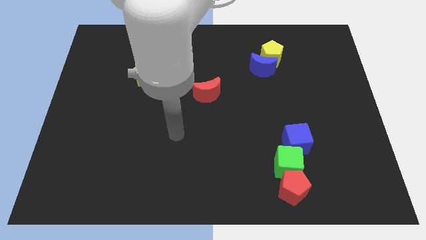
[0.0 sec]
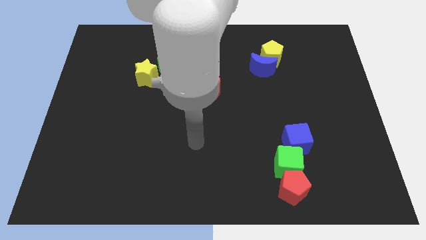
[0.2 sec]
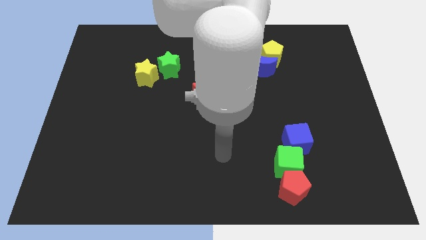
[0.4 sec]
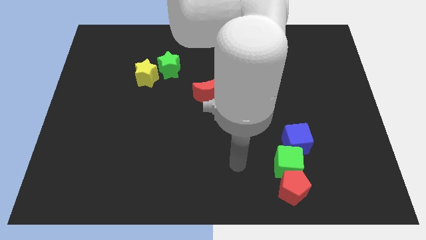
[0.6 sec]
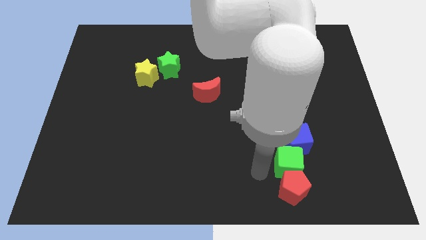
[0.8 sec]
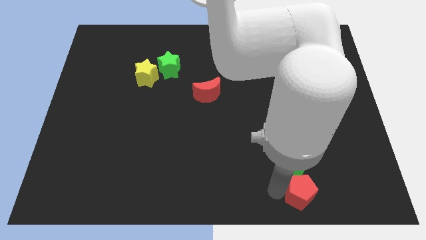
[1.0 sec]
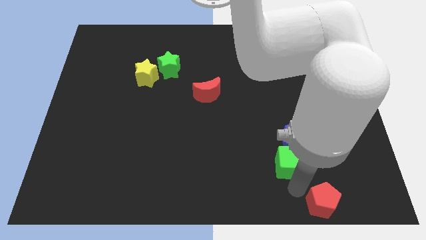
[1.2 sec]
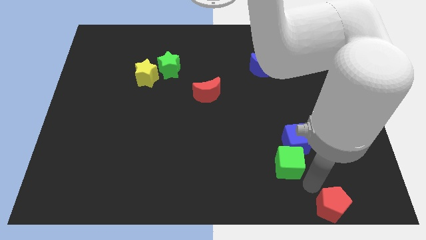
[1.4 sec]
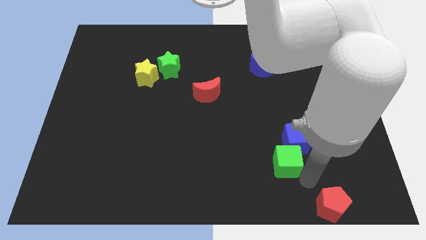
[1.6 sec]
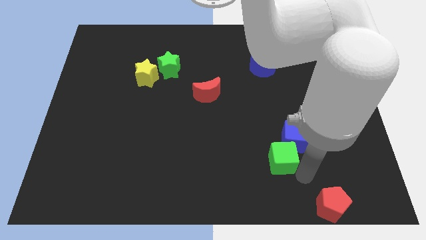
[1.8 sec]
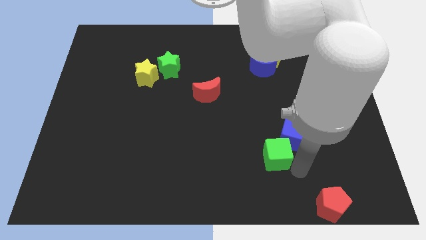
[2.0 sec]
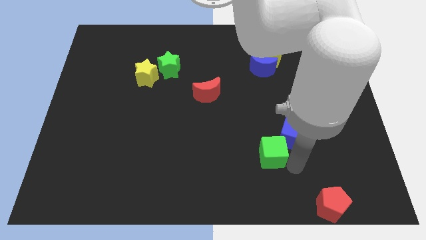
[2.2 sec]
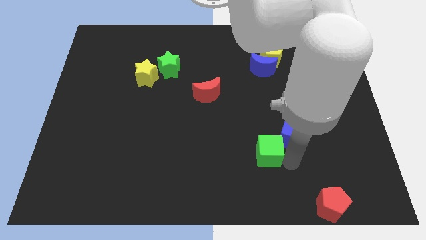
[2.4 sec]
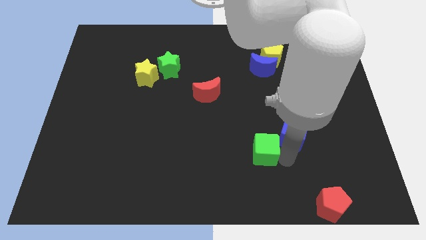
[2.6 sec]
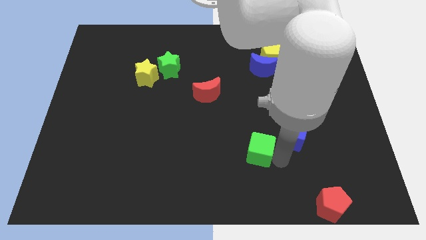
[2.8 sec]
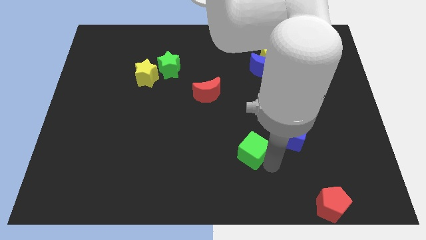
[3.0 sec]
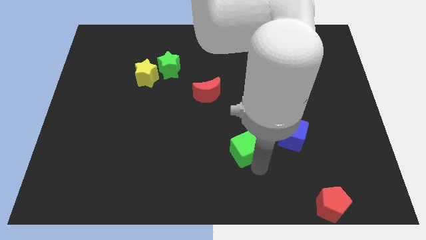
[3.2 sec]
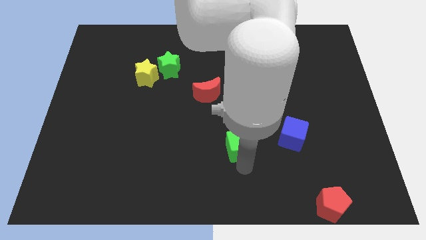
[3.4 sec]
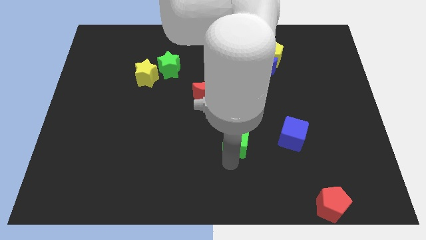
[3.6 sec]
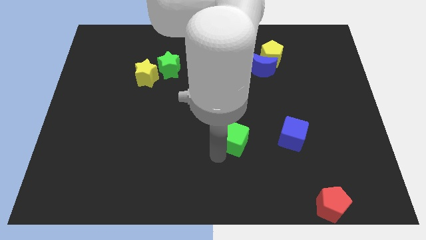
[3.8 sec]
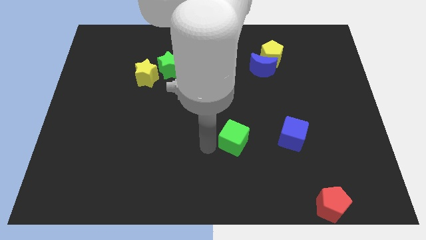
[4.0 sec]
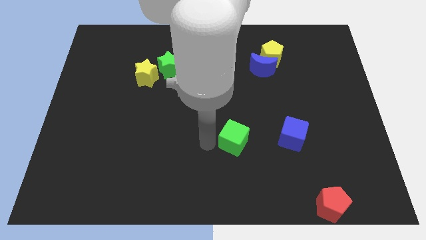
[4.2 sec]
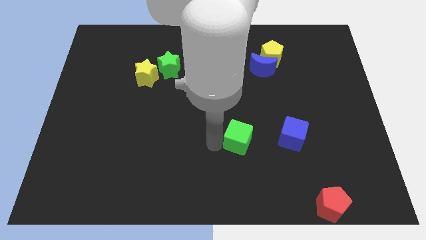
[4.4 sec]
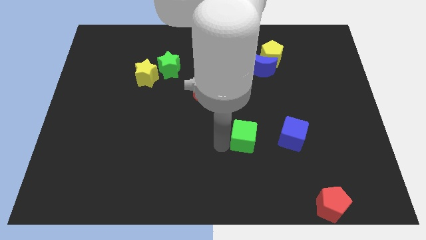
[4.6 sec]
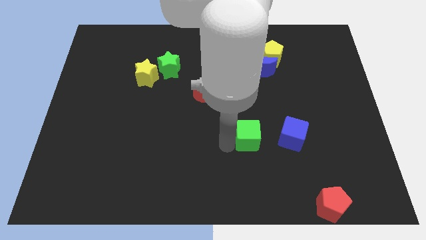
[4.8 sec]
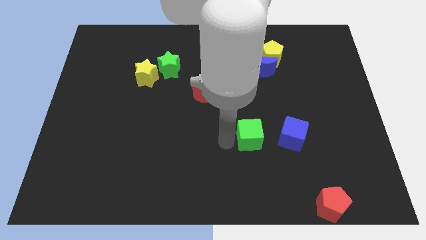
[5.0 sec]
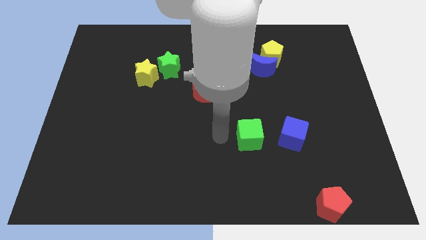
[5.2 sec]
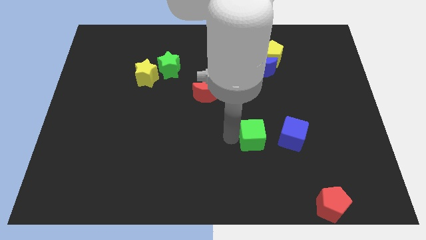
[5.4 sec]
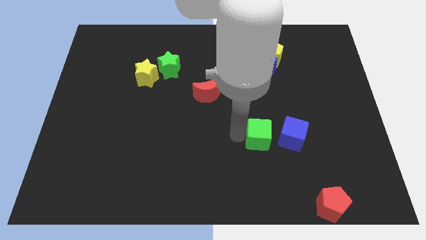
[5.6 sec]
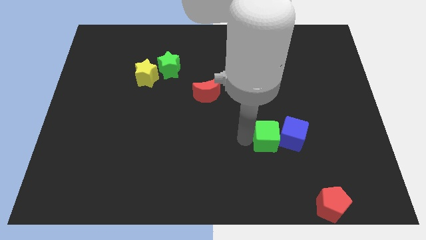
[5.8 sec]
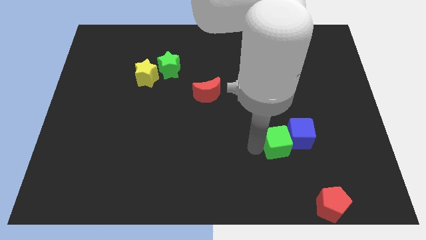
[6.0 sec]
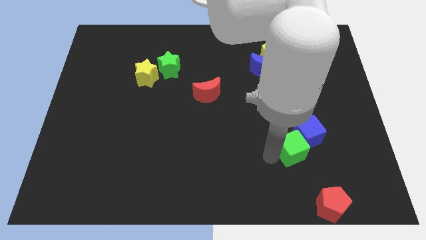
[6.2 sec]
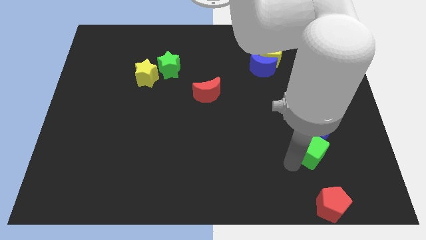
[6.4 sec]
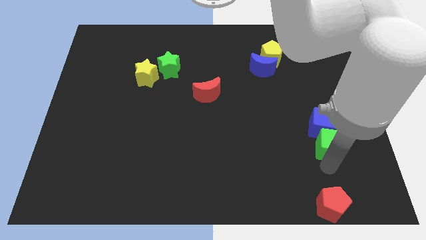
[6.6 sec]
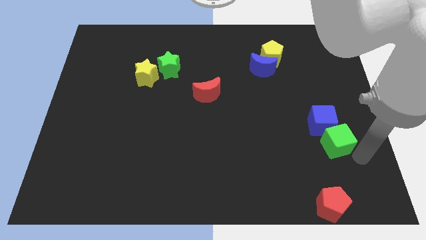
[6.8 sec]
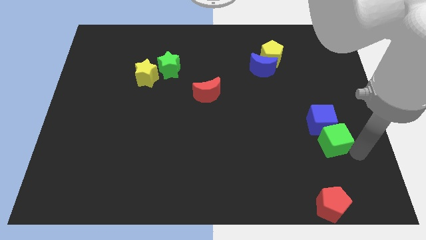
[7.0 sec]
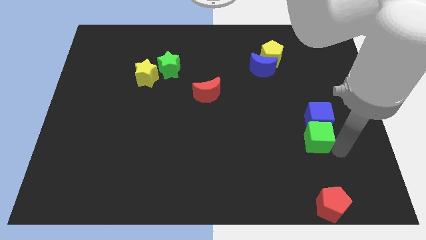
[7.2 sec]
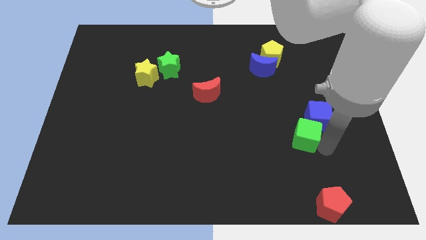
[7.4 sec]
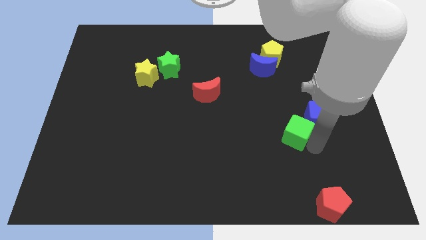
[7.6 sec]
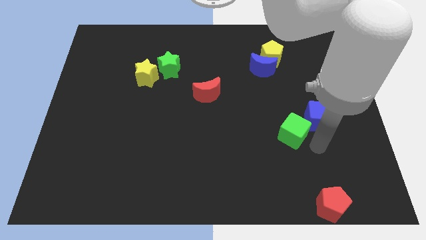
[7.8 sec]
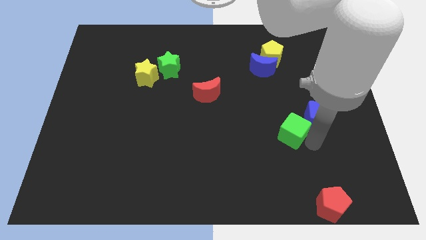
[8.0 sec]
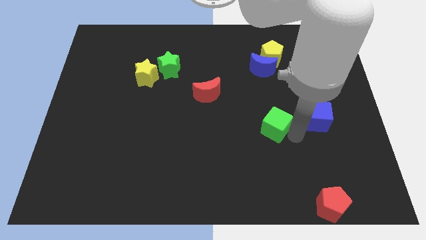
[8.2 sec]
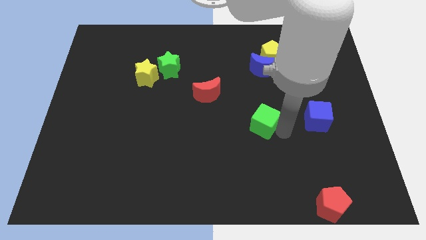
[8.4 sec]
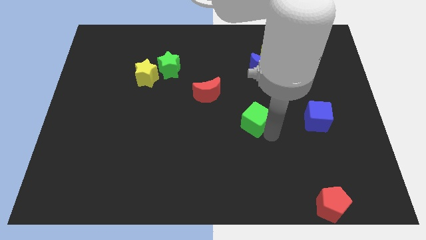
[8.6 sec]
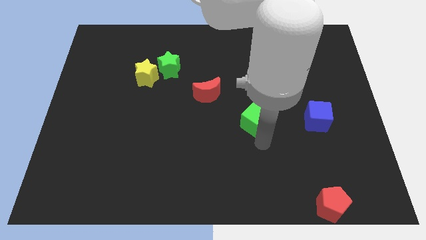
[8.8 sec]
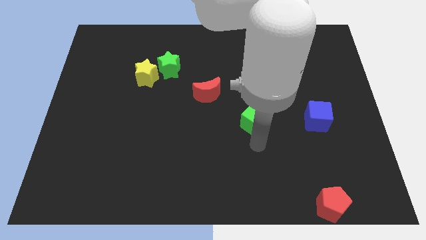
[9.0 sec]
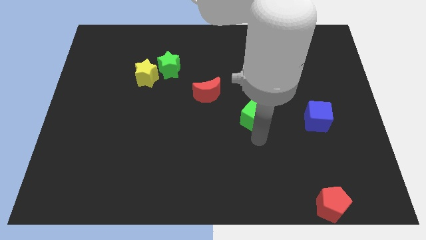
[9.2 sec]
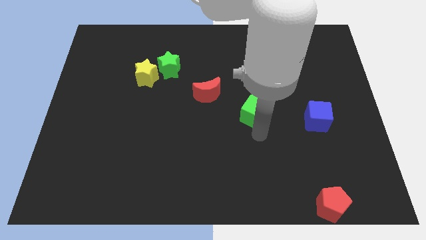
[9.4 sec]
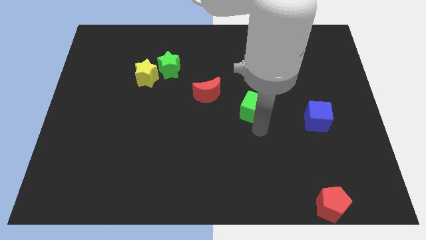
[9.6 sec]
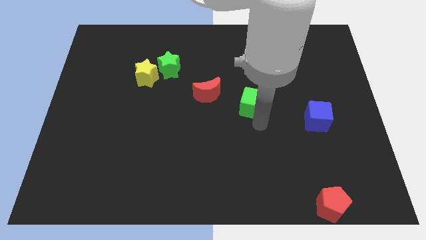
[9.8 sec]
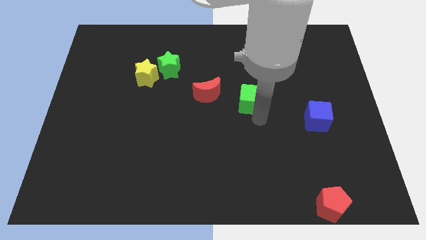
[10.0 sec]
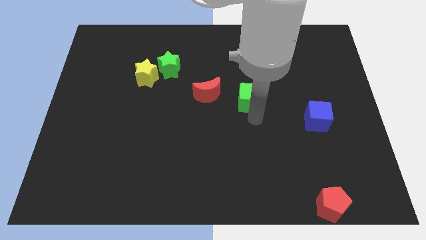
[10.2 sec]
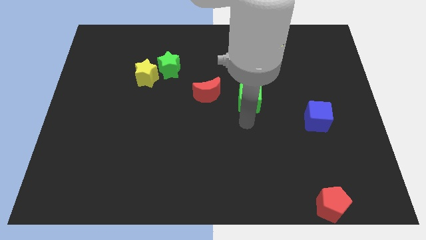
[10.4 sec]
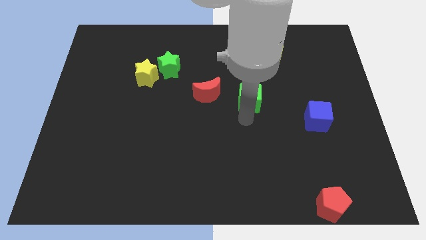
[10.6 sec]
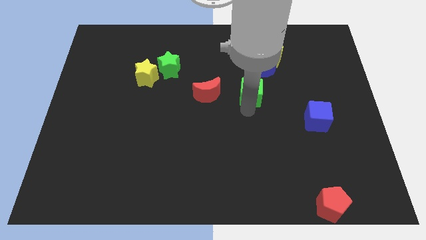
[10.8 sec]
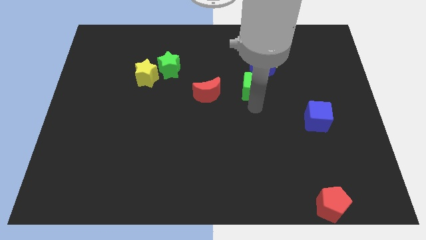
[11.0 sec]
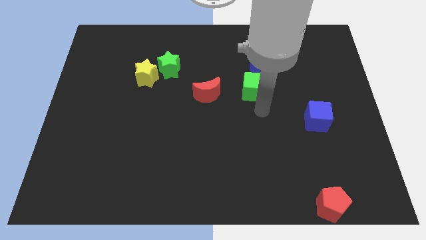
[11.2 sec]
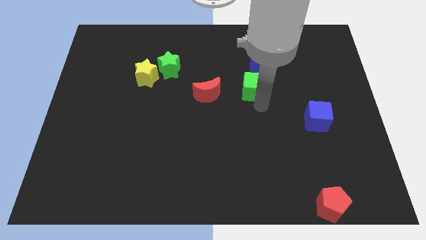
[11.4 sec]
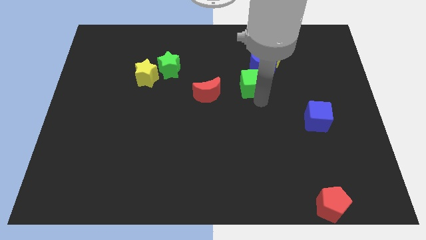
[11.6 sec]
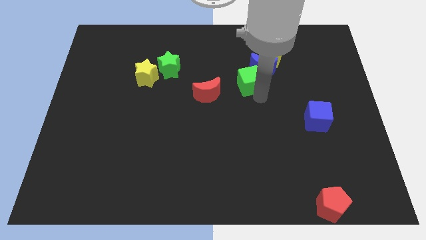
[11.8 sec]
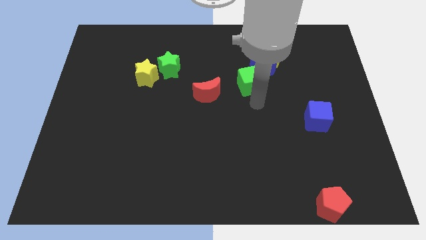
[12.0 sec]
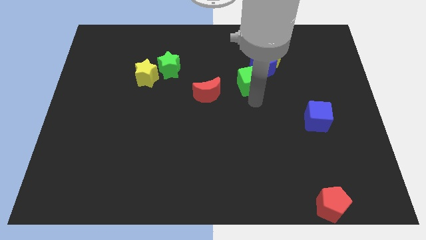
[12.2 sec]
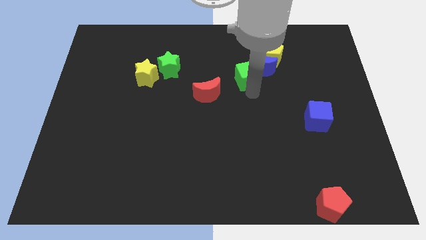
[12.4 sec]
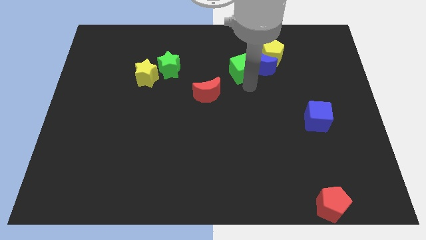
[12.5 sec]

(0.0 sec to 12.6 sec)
push the green cube diagonally up and to the left of the blue moon

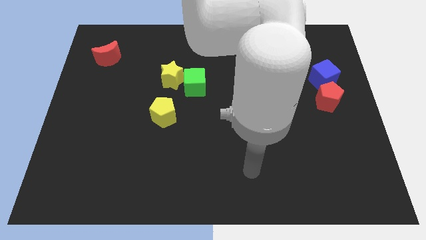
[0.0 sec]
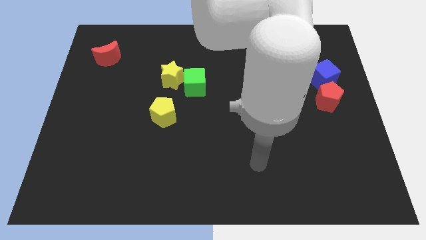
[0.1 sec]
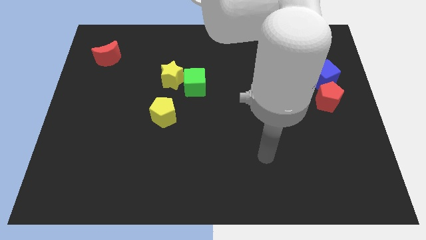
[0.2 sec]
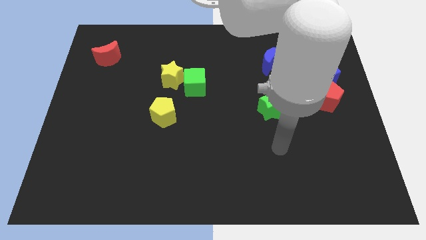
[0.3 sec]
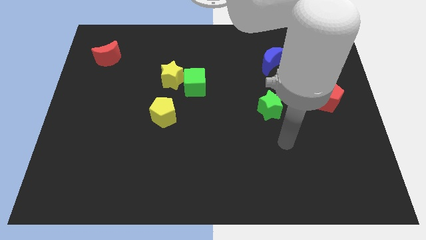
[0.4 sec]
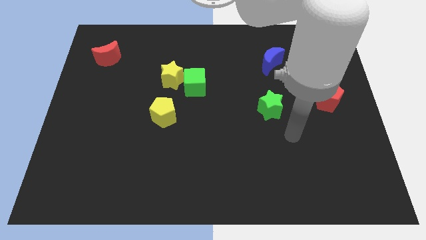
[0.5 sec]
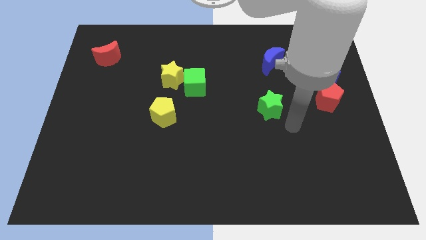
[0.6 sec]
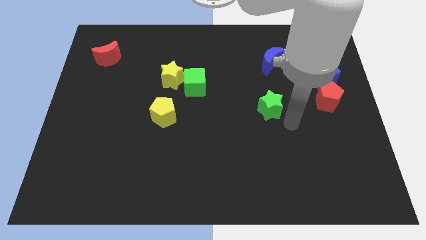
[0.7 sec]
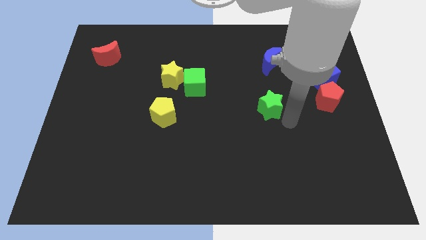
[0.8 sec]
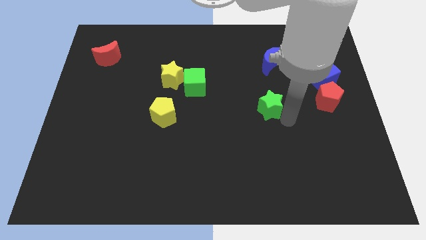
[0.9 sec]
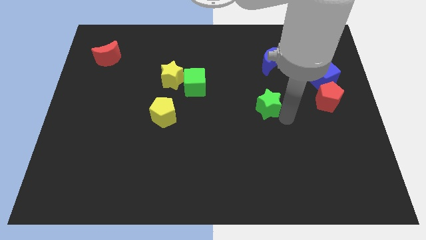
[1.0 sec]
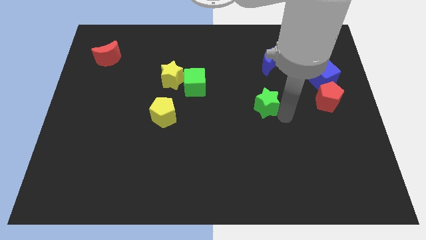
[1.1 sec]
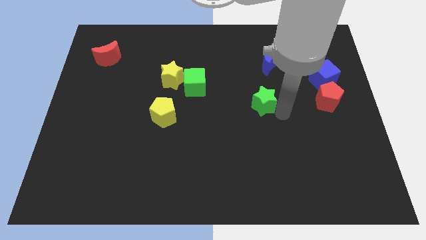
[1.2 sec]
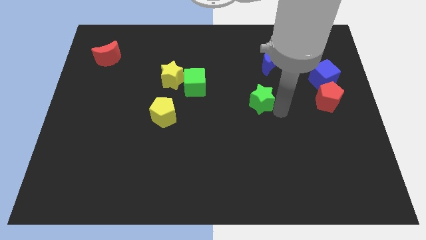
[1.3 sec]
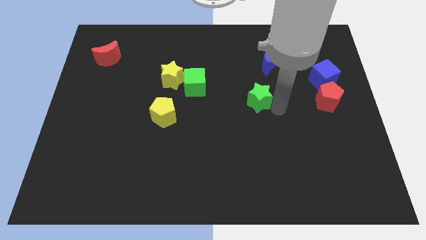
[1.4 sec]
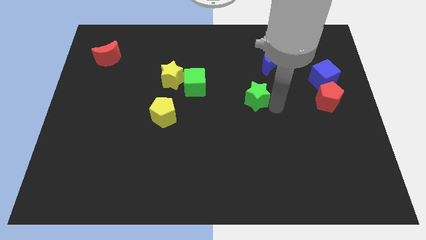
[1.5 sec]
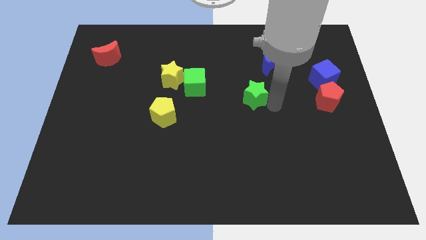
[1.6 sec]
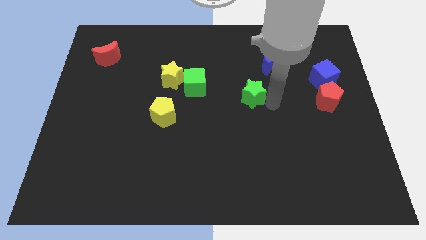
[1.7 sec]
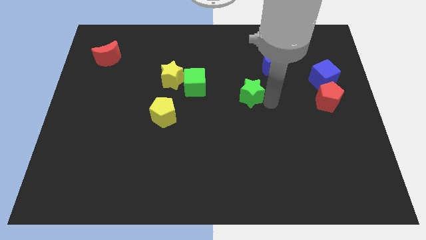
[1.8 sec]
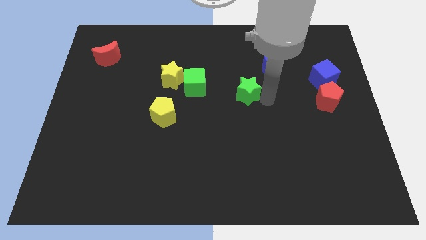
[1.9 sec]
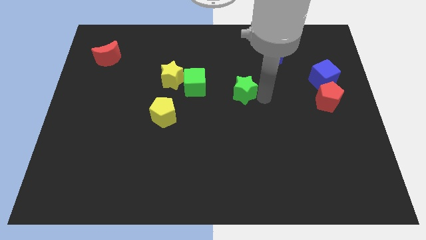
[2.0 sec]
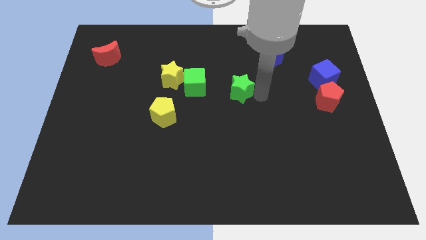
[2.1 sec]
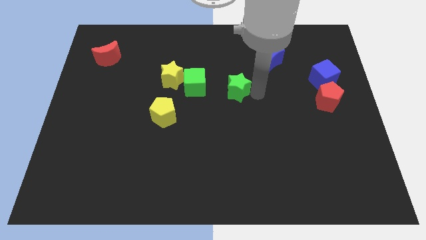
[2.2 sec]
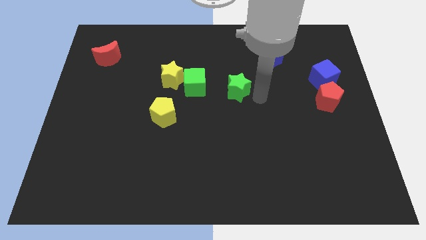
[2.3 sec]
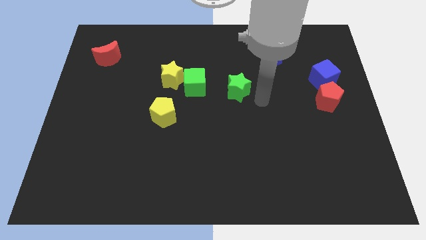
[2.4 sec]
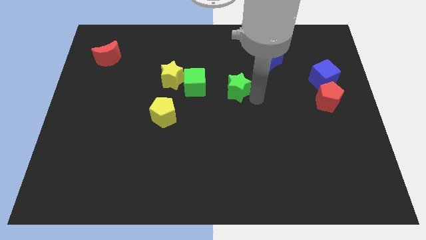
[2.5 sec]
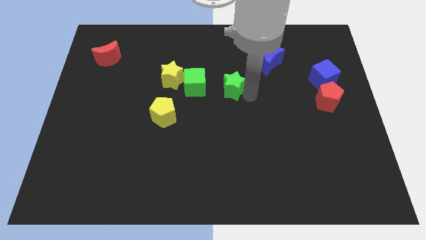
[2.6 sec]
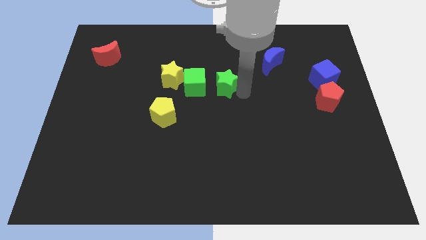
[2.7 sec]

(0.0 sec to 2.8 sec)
slide the green star just right of the yellow star
